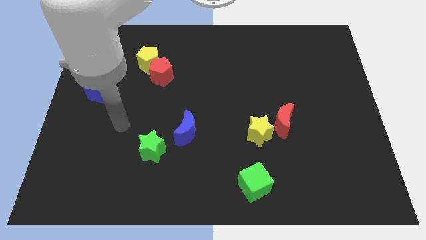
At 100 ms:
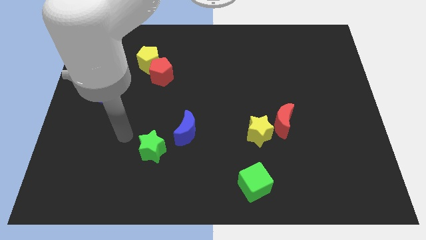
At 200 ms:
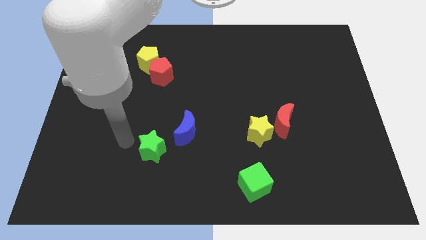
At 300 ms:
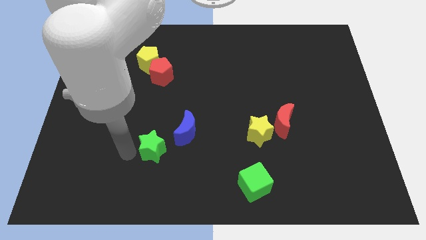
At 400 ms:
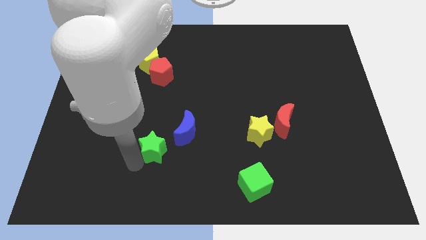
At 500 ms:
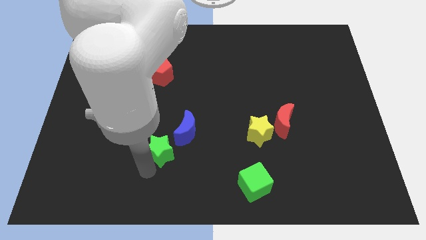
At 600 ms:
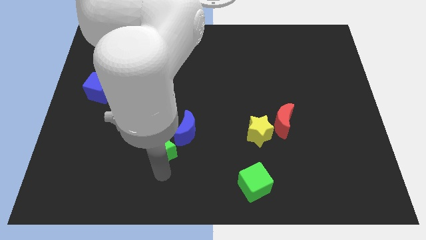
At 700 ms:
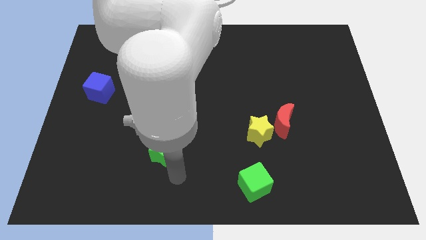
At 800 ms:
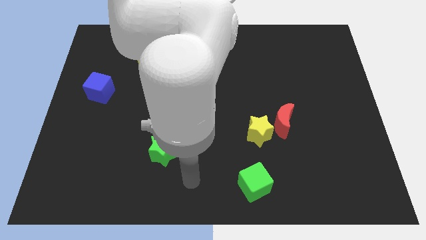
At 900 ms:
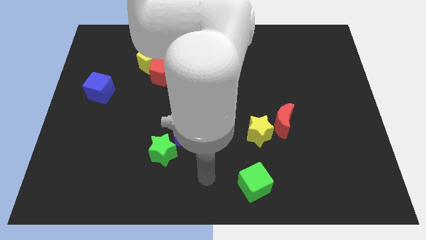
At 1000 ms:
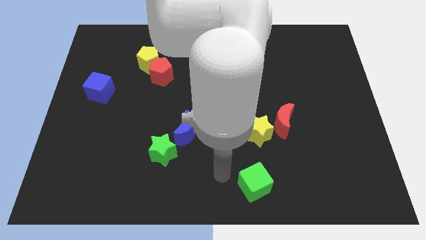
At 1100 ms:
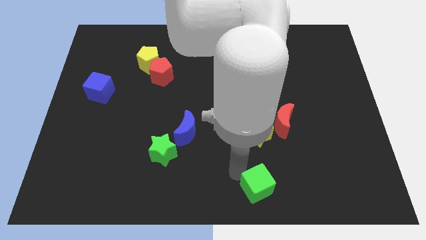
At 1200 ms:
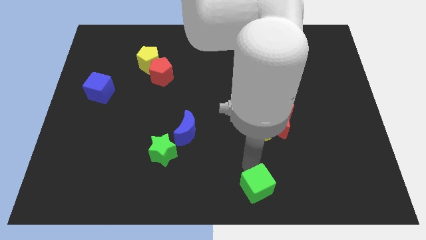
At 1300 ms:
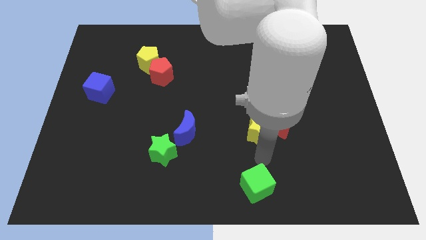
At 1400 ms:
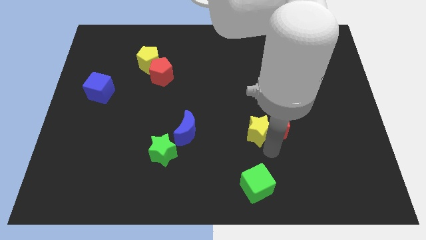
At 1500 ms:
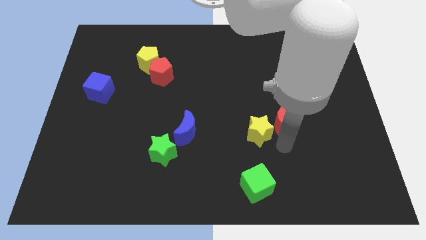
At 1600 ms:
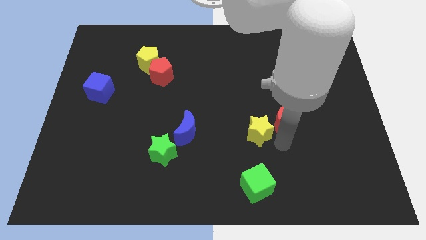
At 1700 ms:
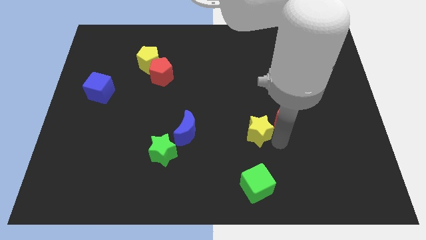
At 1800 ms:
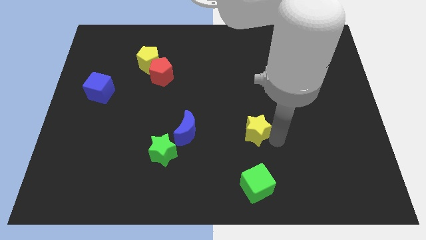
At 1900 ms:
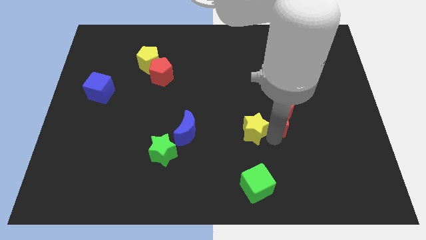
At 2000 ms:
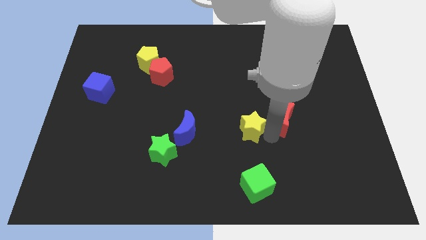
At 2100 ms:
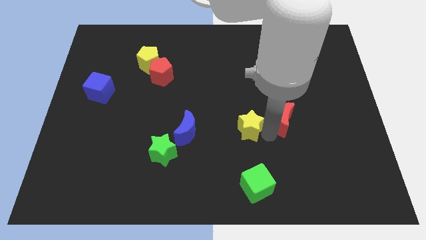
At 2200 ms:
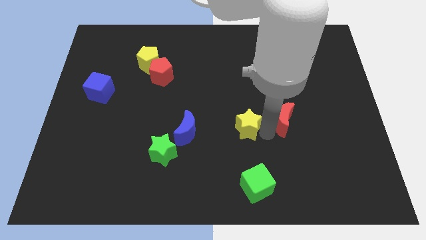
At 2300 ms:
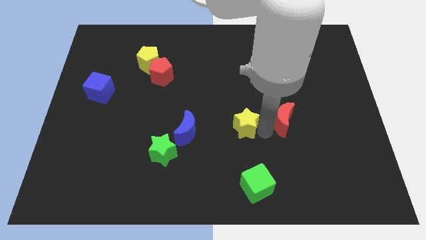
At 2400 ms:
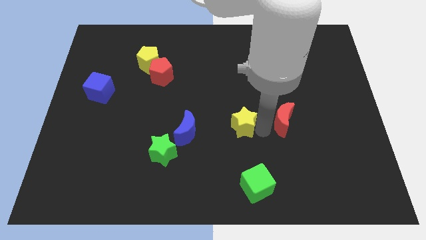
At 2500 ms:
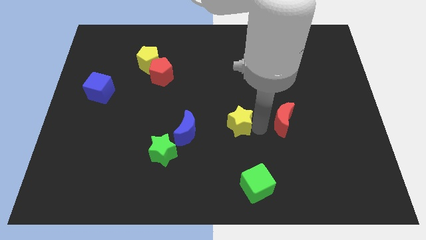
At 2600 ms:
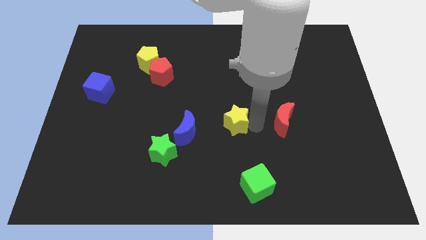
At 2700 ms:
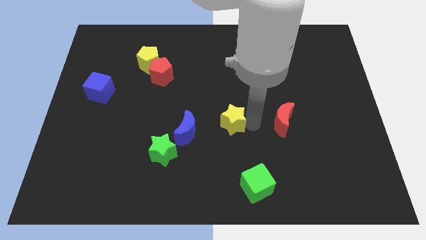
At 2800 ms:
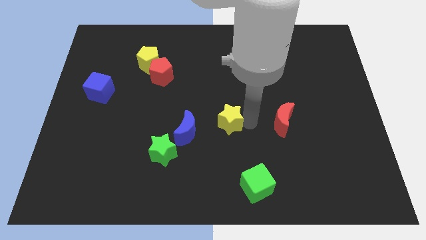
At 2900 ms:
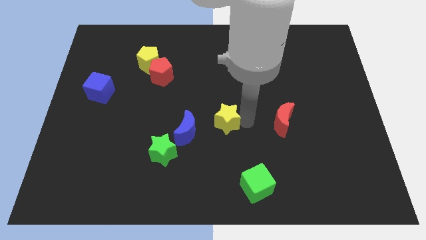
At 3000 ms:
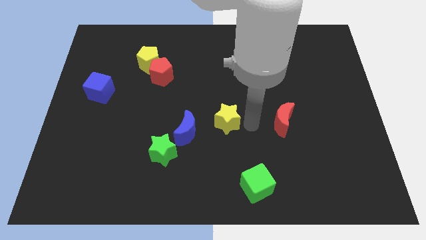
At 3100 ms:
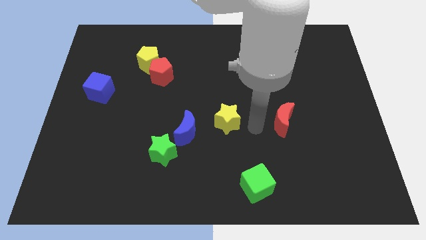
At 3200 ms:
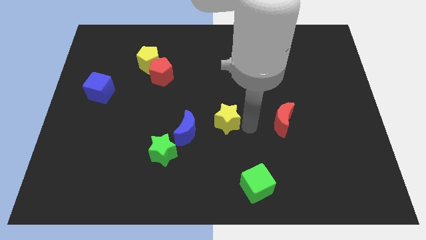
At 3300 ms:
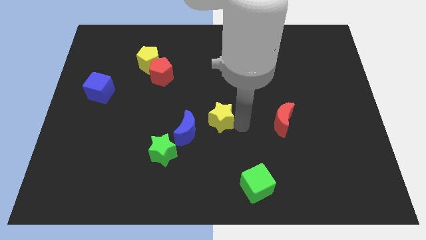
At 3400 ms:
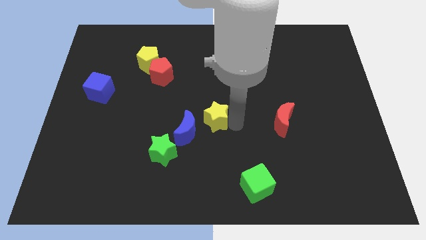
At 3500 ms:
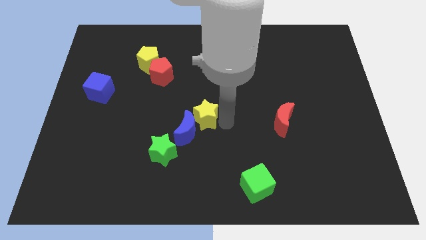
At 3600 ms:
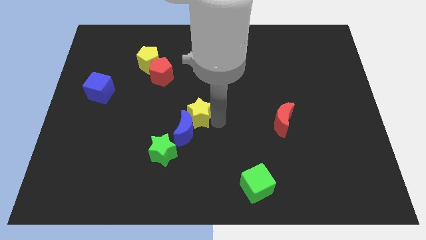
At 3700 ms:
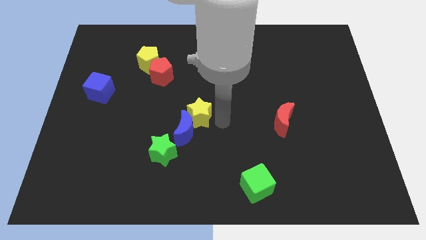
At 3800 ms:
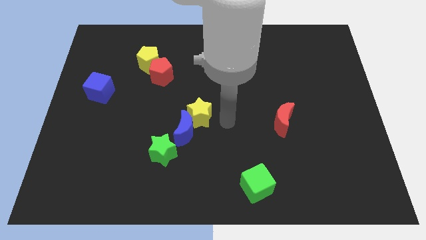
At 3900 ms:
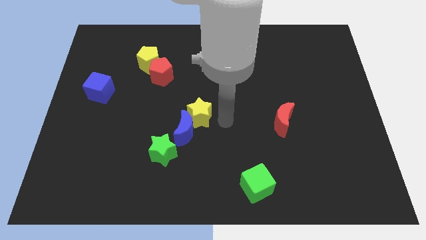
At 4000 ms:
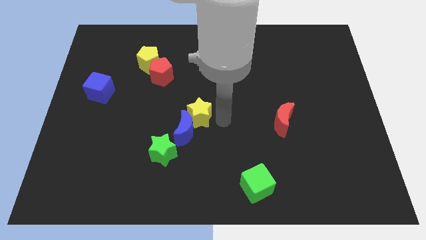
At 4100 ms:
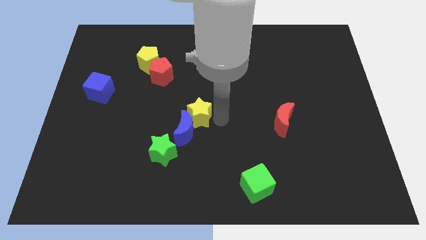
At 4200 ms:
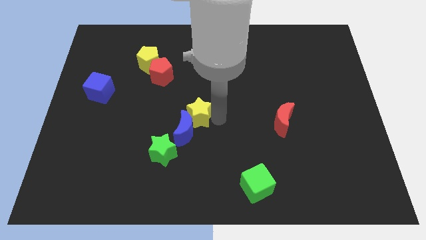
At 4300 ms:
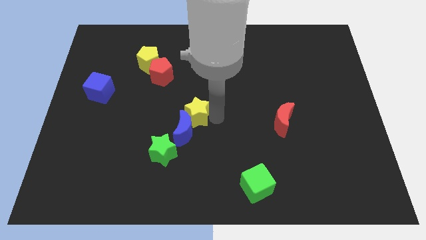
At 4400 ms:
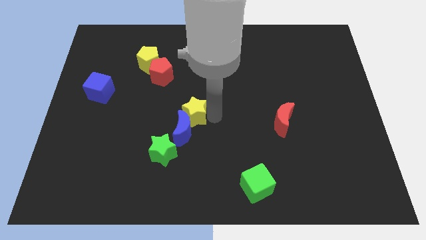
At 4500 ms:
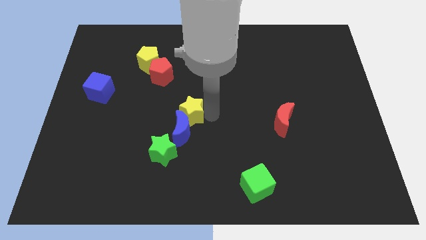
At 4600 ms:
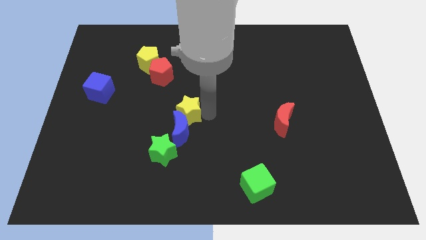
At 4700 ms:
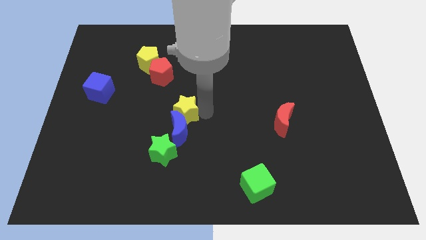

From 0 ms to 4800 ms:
put the yellow star above the green star

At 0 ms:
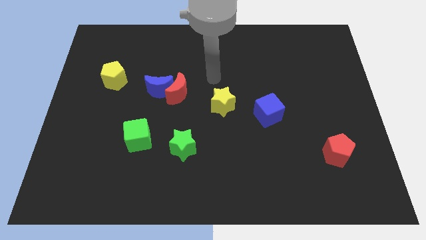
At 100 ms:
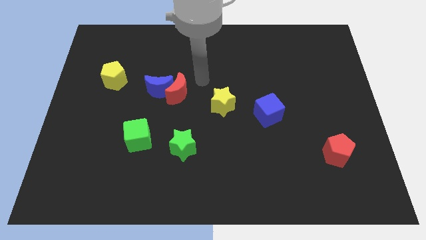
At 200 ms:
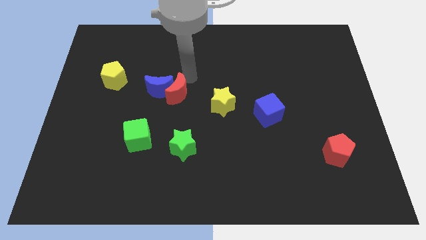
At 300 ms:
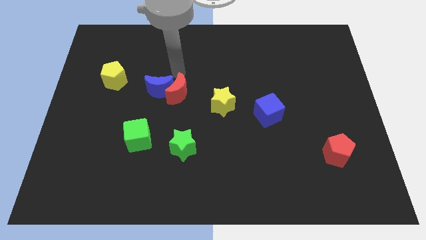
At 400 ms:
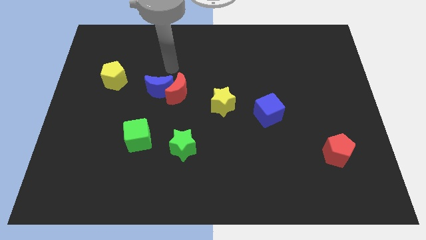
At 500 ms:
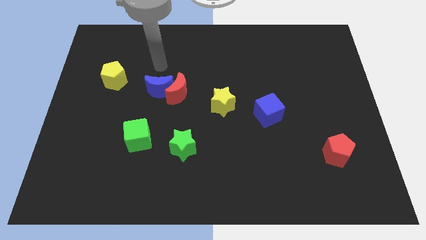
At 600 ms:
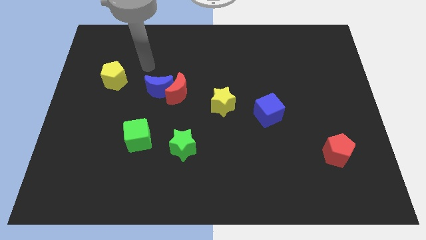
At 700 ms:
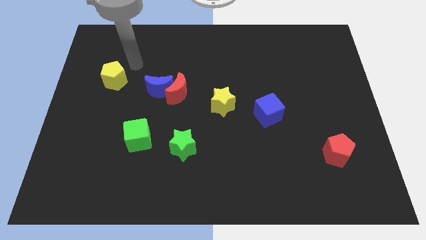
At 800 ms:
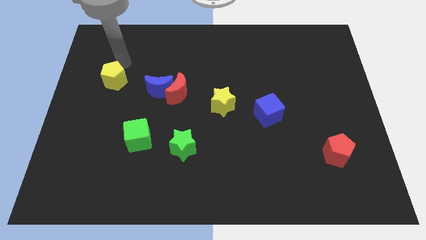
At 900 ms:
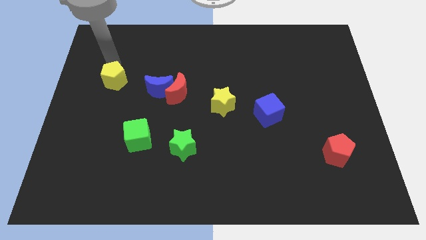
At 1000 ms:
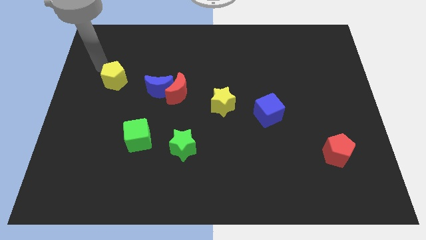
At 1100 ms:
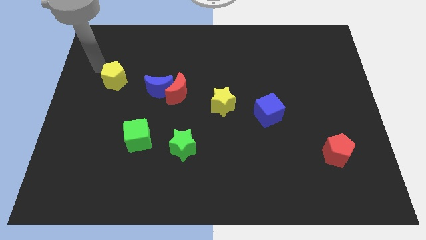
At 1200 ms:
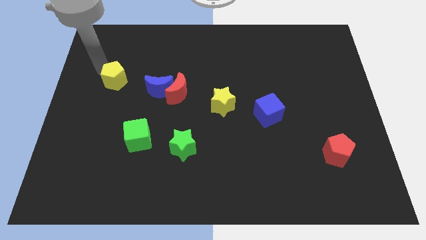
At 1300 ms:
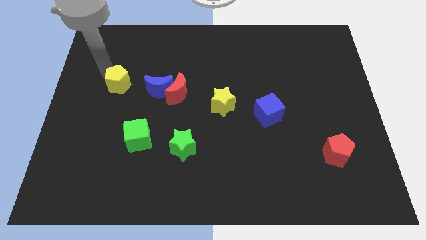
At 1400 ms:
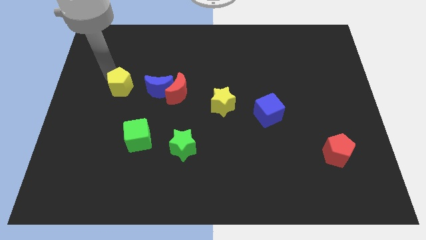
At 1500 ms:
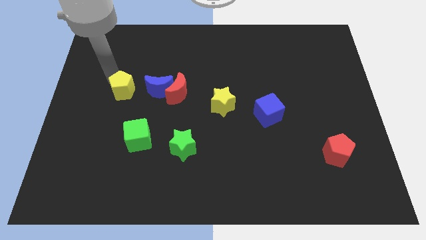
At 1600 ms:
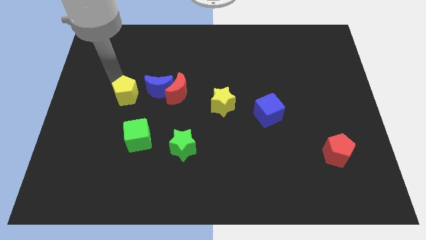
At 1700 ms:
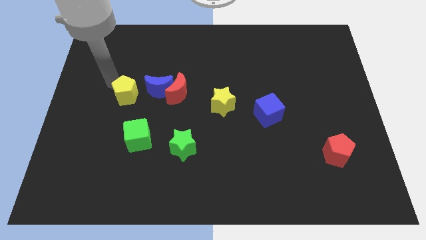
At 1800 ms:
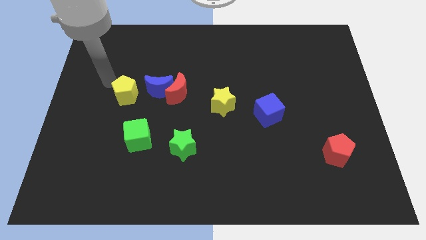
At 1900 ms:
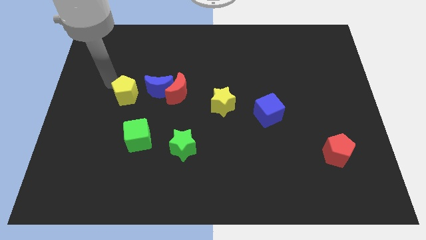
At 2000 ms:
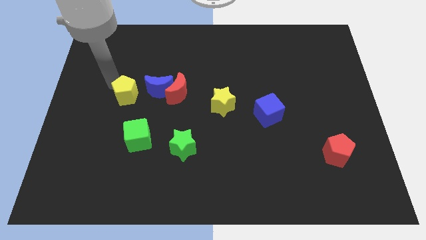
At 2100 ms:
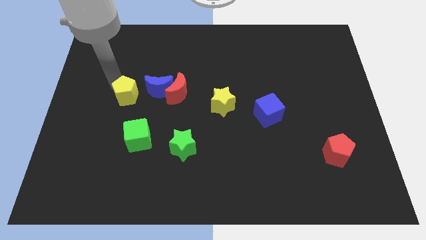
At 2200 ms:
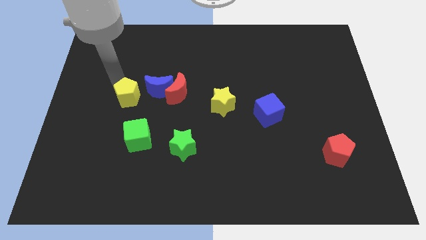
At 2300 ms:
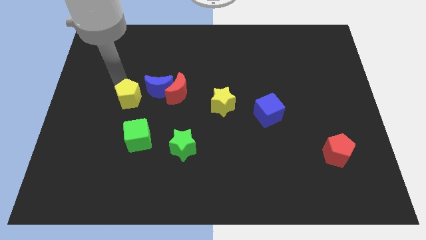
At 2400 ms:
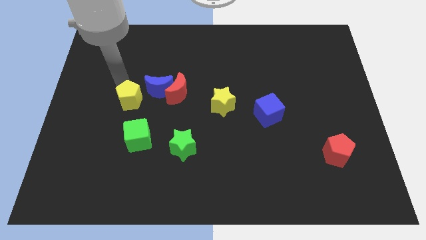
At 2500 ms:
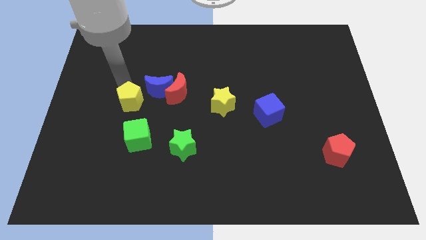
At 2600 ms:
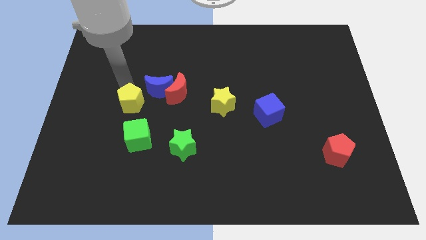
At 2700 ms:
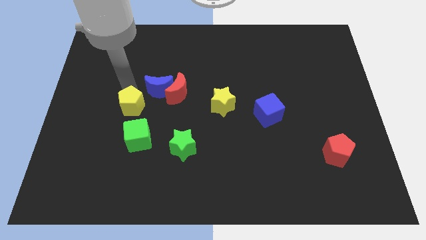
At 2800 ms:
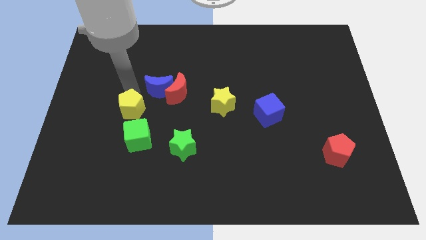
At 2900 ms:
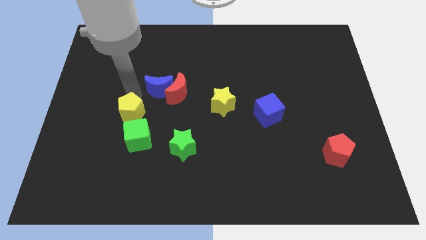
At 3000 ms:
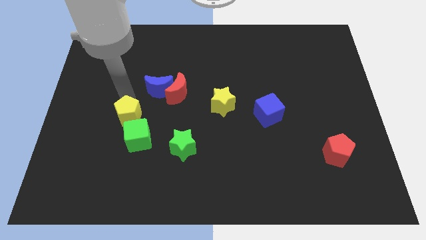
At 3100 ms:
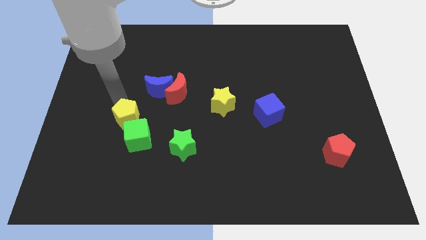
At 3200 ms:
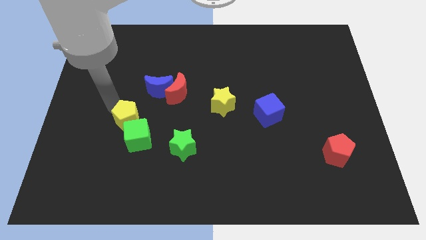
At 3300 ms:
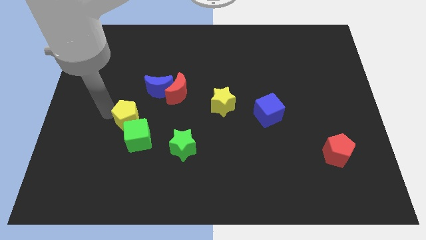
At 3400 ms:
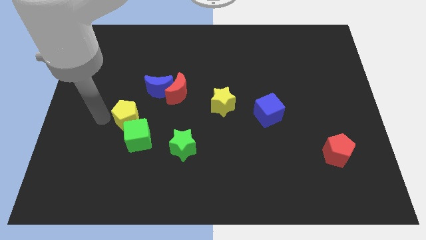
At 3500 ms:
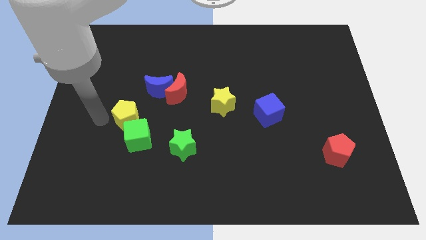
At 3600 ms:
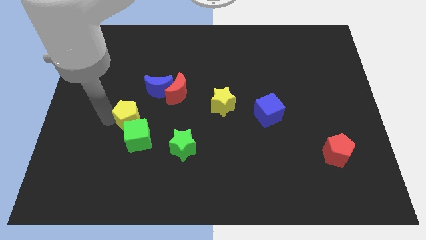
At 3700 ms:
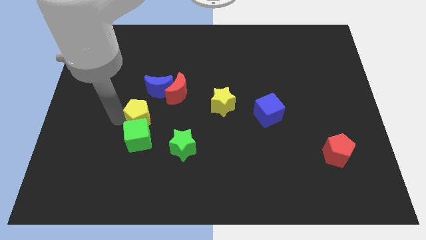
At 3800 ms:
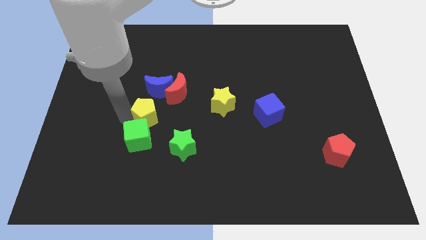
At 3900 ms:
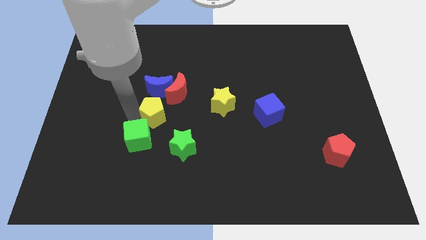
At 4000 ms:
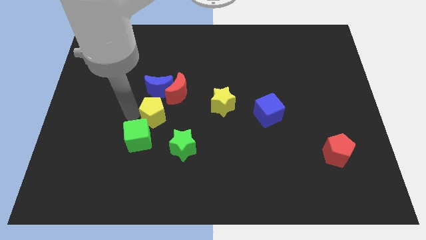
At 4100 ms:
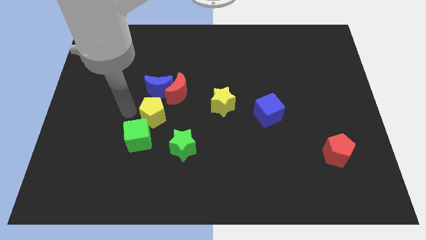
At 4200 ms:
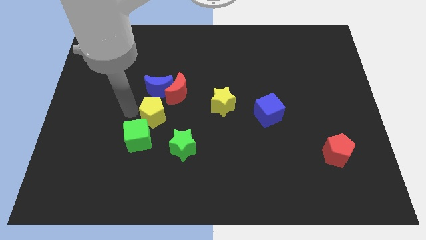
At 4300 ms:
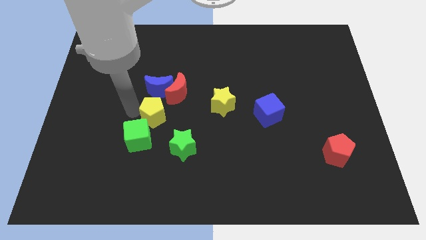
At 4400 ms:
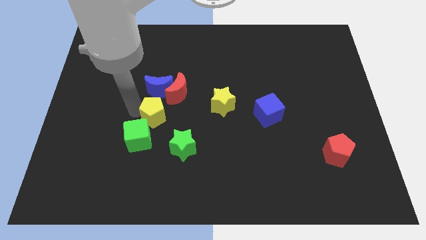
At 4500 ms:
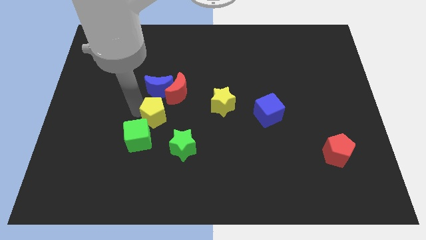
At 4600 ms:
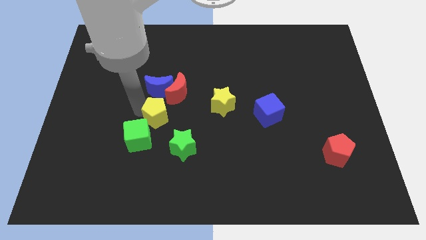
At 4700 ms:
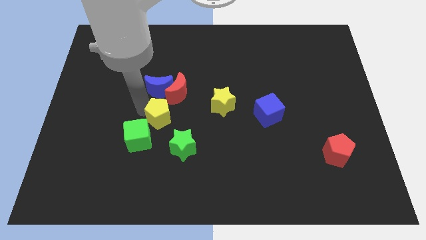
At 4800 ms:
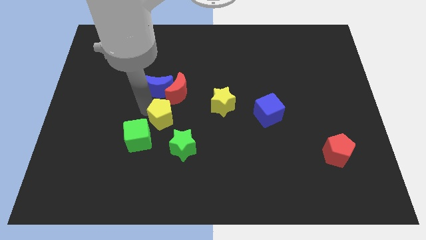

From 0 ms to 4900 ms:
slide the yellow pentagon to the top side of the green star
